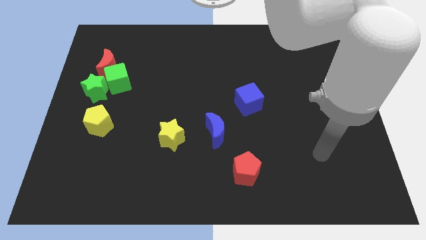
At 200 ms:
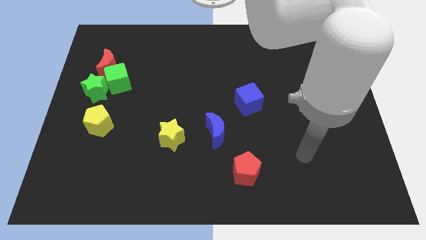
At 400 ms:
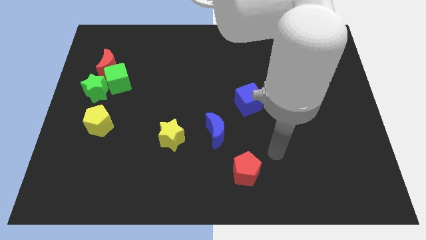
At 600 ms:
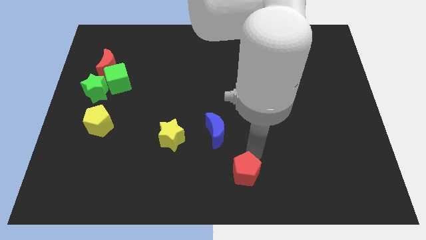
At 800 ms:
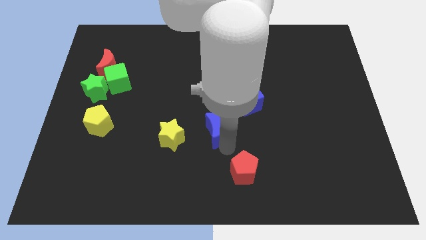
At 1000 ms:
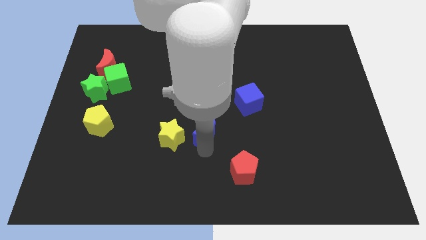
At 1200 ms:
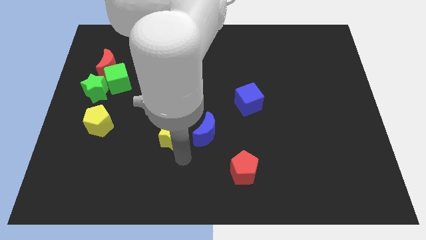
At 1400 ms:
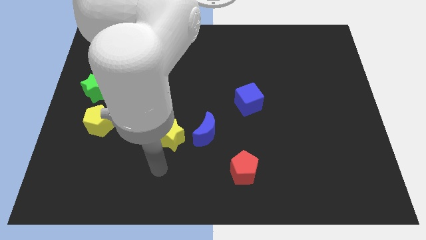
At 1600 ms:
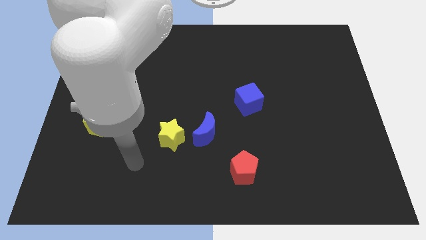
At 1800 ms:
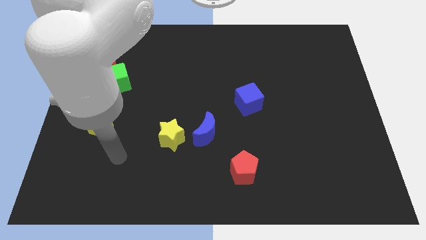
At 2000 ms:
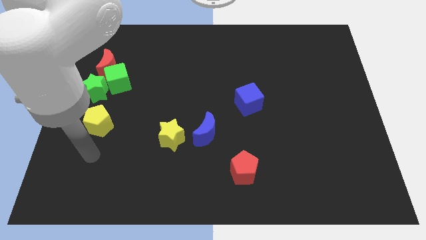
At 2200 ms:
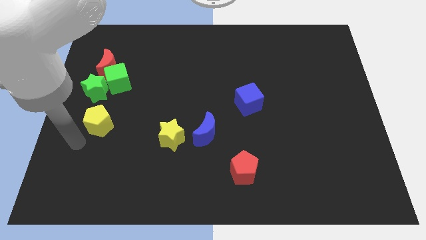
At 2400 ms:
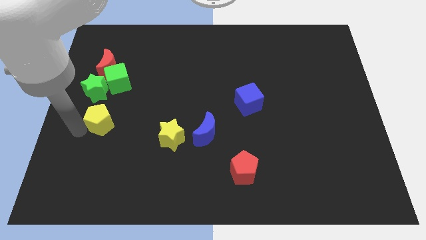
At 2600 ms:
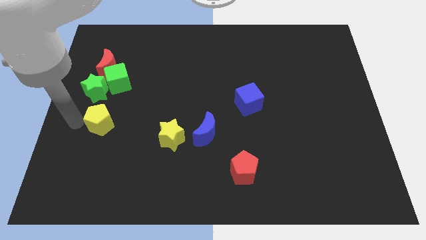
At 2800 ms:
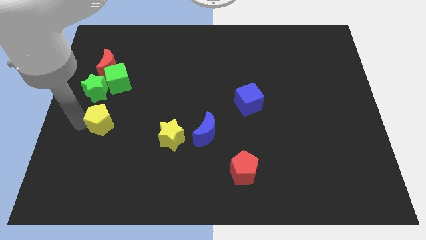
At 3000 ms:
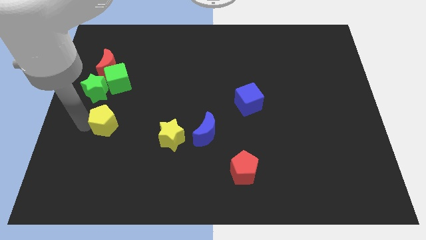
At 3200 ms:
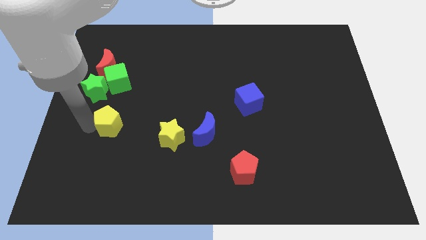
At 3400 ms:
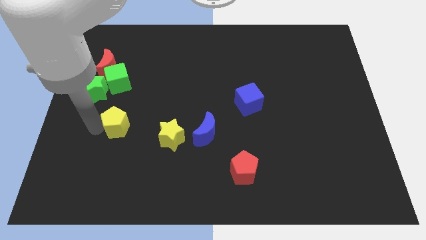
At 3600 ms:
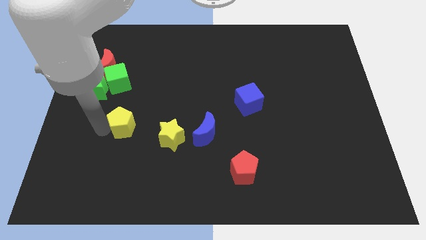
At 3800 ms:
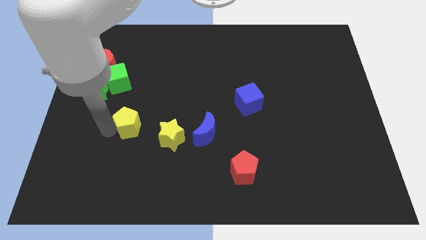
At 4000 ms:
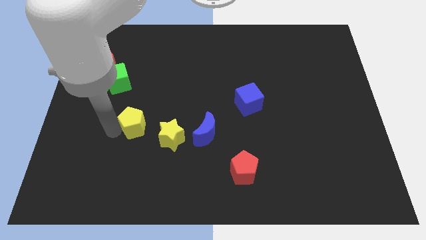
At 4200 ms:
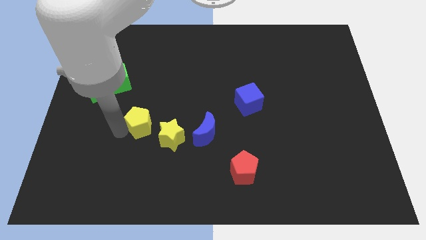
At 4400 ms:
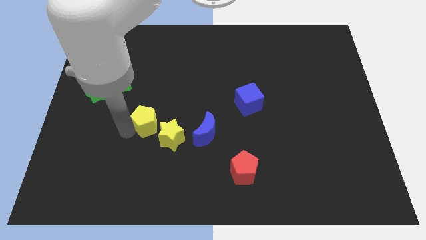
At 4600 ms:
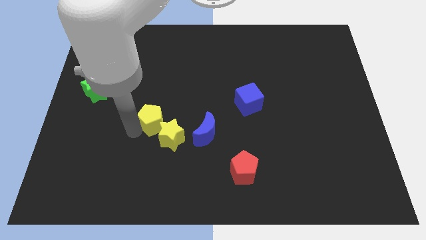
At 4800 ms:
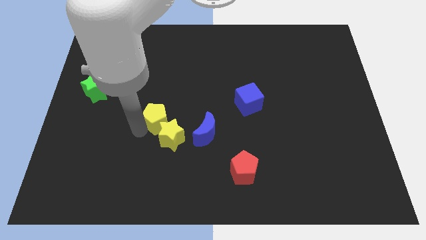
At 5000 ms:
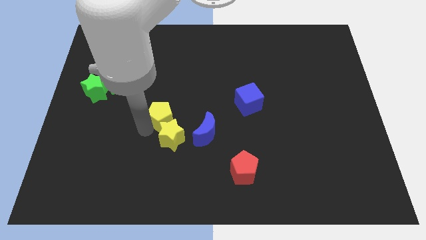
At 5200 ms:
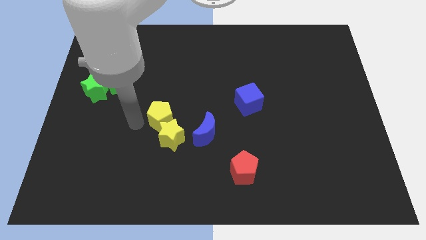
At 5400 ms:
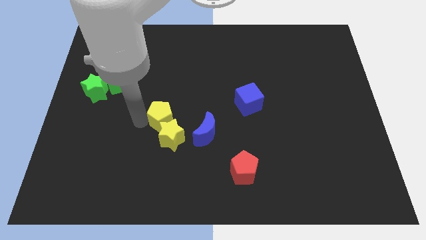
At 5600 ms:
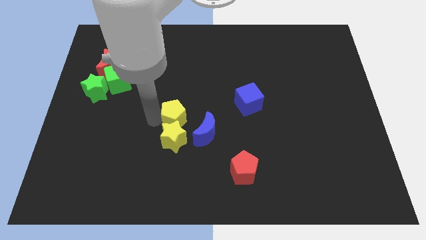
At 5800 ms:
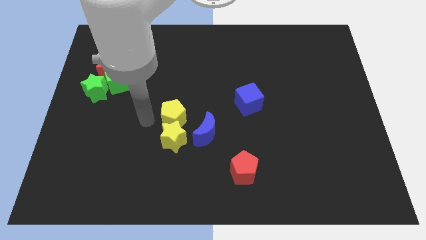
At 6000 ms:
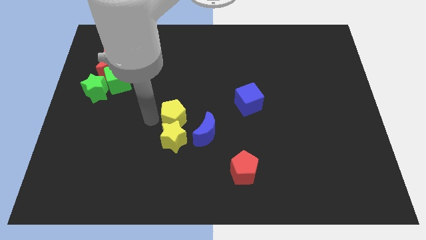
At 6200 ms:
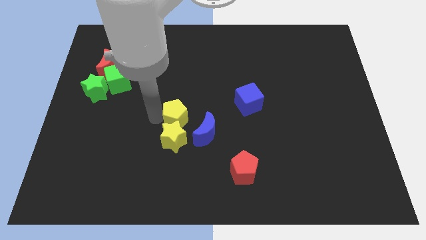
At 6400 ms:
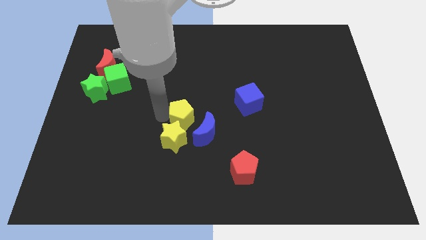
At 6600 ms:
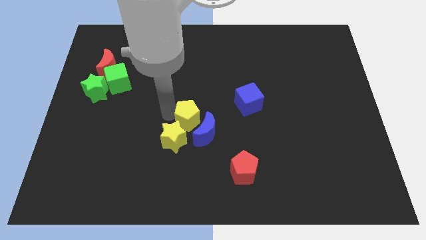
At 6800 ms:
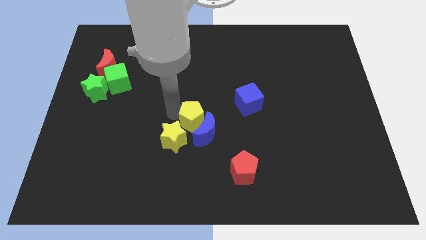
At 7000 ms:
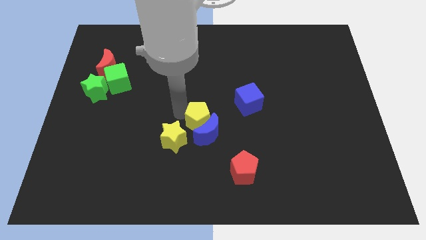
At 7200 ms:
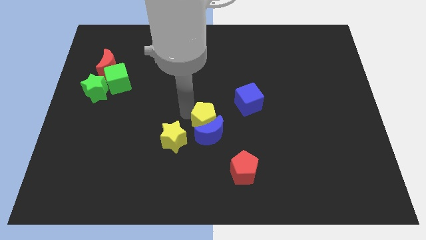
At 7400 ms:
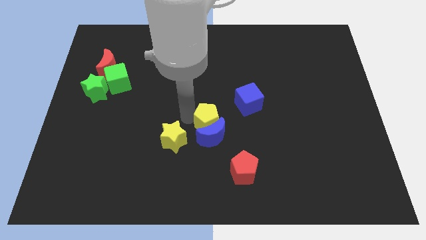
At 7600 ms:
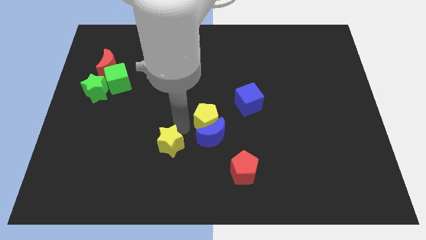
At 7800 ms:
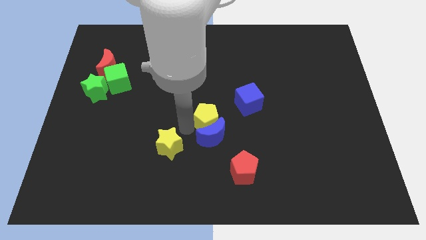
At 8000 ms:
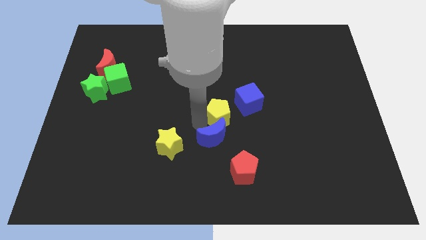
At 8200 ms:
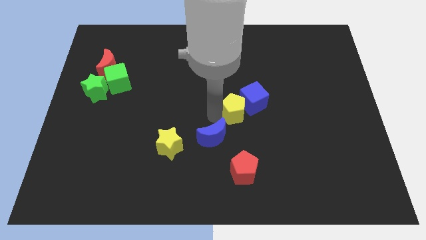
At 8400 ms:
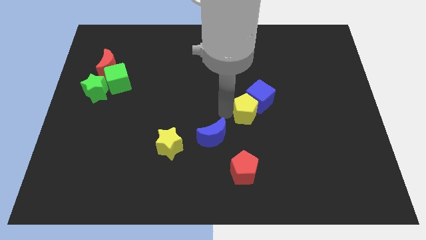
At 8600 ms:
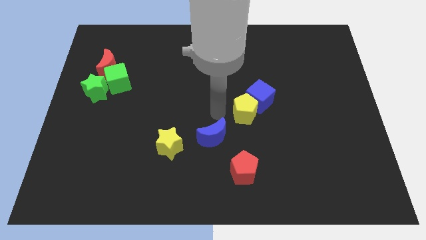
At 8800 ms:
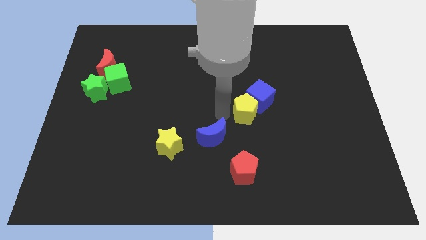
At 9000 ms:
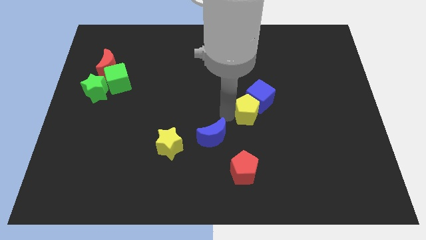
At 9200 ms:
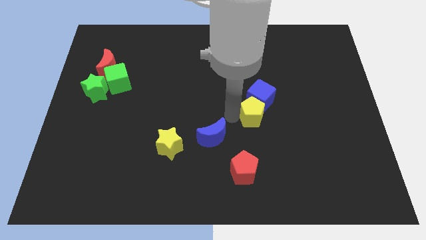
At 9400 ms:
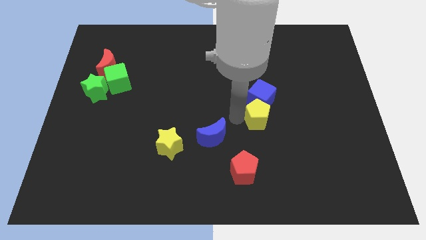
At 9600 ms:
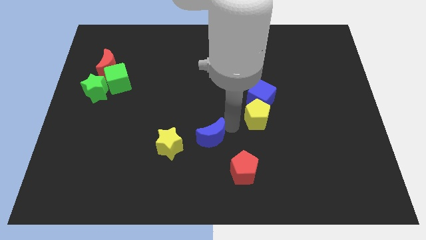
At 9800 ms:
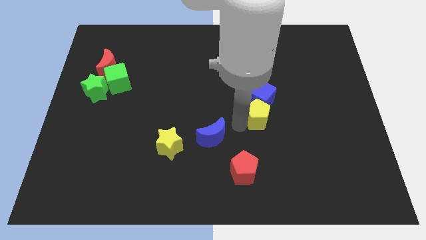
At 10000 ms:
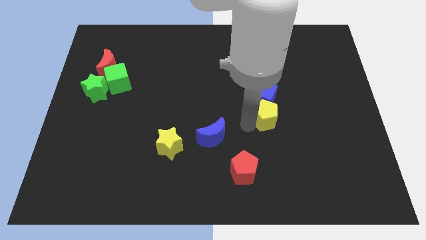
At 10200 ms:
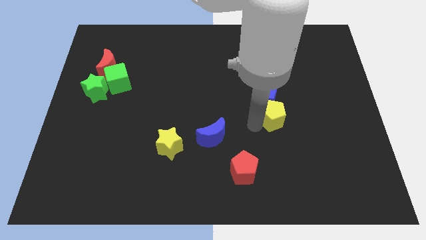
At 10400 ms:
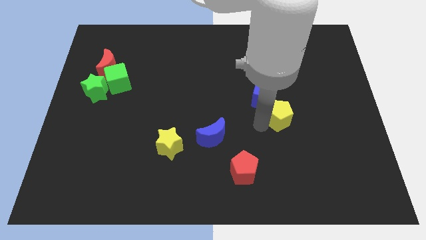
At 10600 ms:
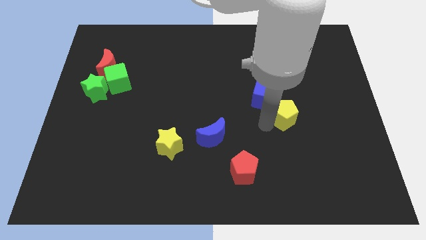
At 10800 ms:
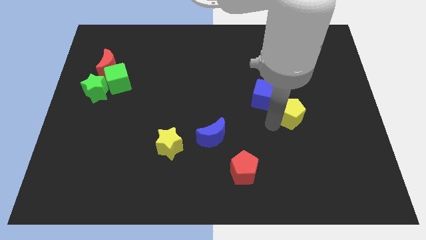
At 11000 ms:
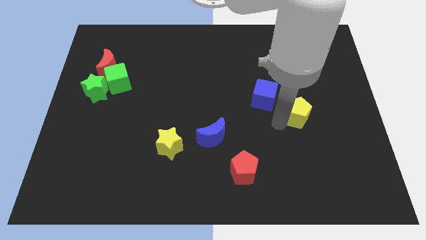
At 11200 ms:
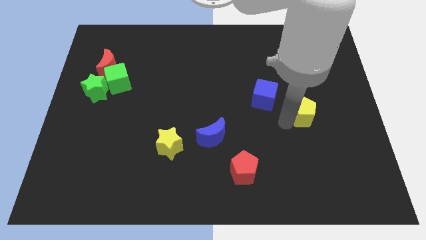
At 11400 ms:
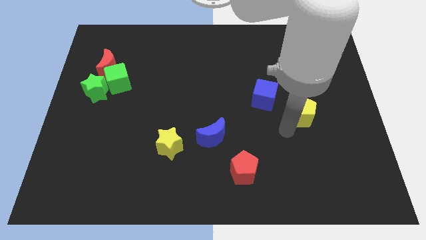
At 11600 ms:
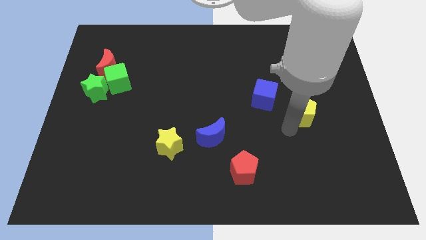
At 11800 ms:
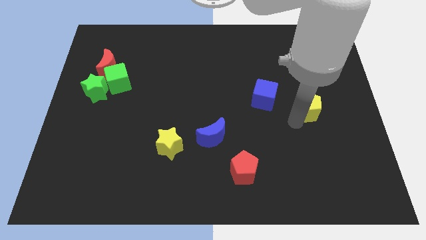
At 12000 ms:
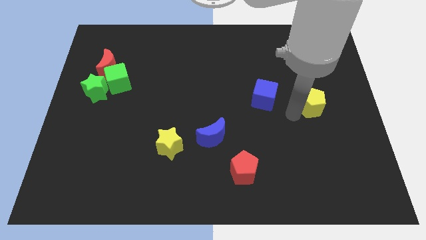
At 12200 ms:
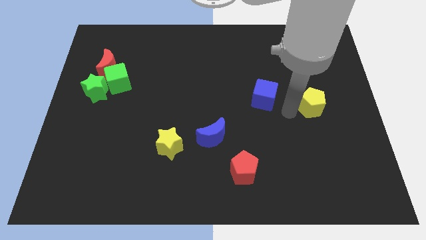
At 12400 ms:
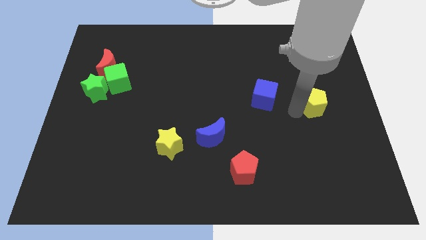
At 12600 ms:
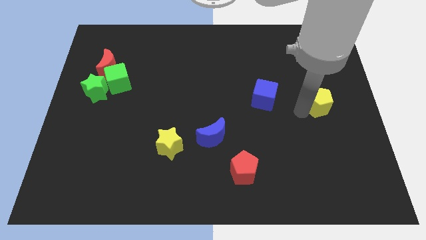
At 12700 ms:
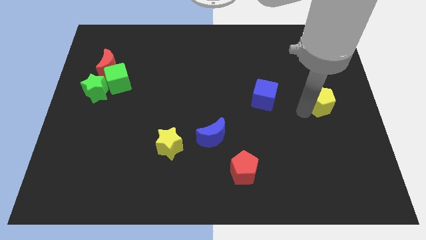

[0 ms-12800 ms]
slide the yellow pentagon to the right side
